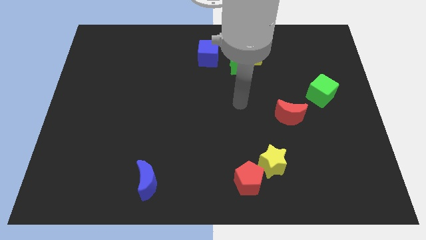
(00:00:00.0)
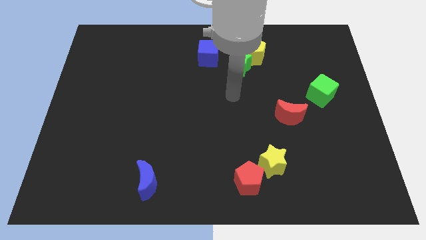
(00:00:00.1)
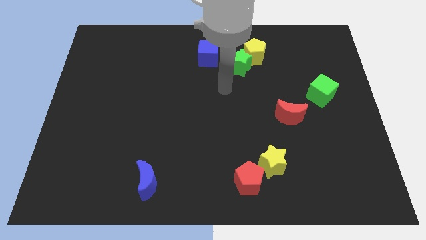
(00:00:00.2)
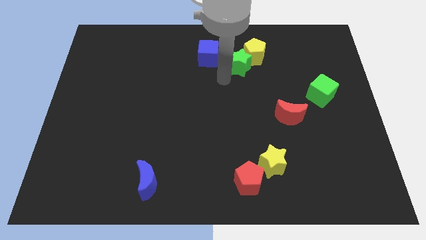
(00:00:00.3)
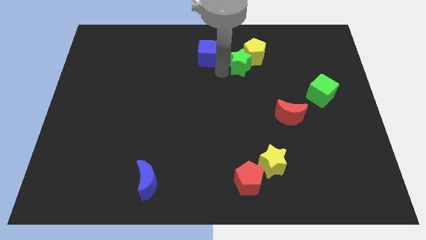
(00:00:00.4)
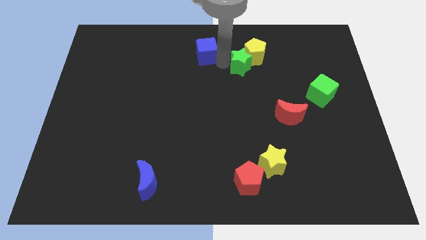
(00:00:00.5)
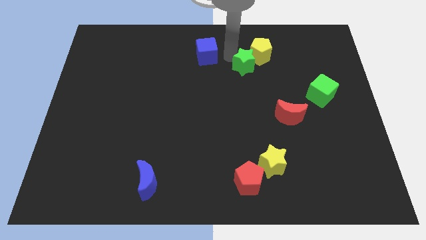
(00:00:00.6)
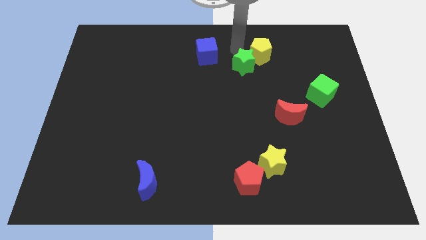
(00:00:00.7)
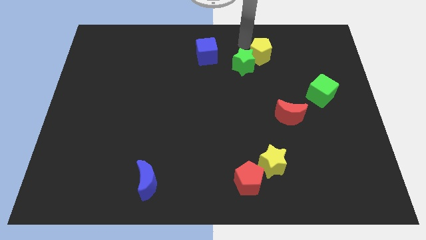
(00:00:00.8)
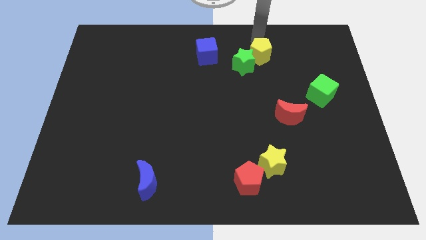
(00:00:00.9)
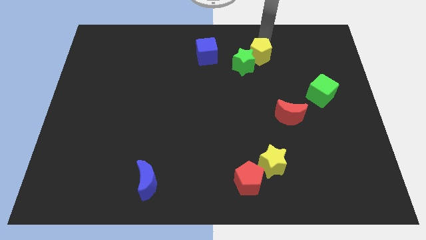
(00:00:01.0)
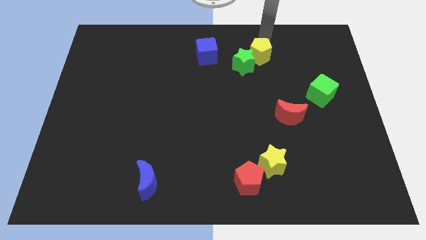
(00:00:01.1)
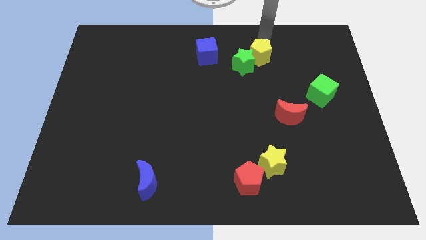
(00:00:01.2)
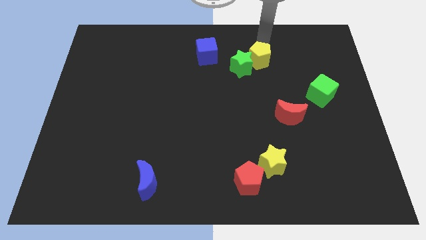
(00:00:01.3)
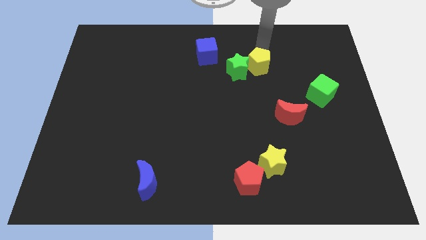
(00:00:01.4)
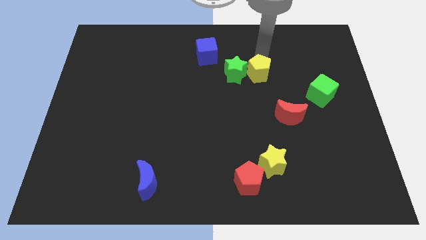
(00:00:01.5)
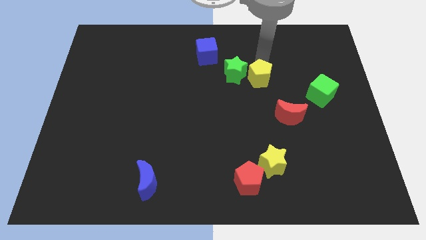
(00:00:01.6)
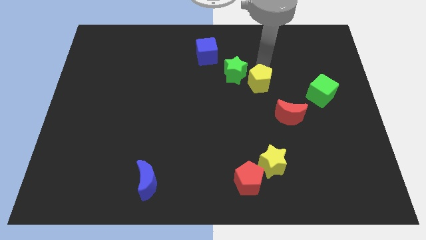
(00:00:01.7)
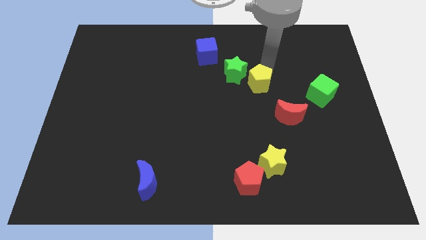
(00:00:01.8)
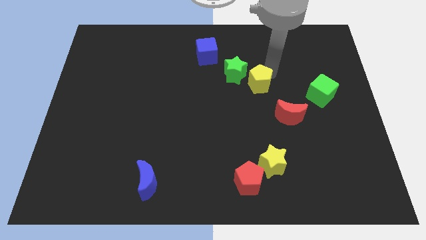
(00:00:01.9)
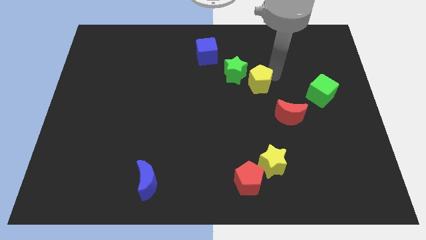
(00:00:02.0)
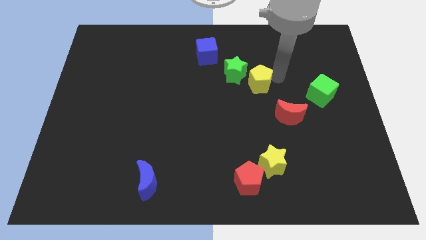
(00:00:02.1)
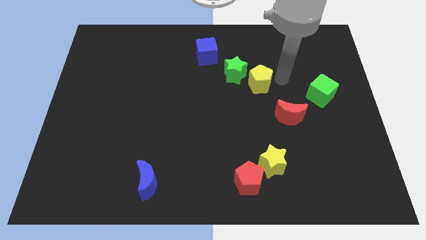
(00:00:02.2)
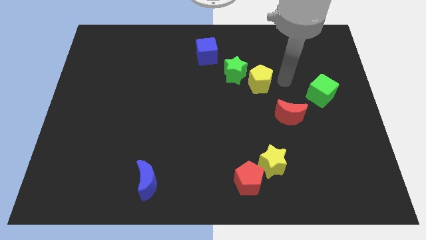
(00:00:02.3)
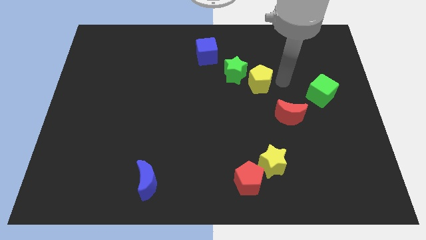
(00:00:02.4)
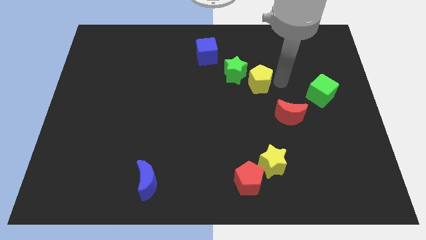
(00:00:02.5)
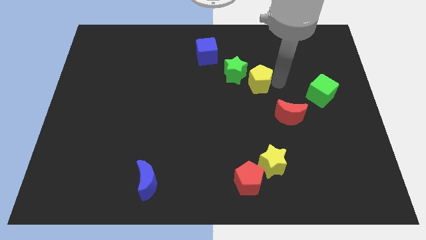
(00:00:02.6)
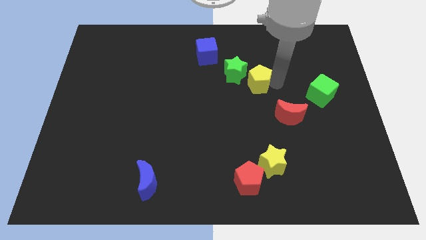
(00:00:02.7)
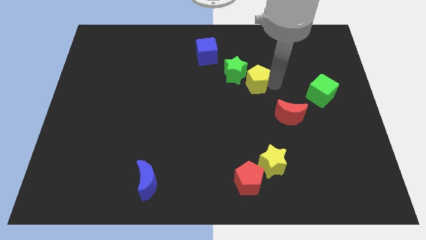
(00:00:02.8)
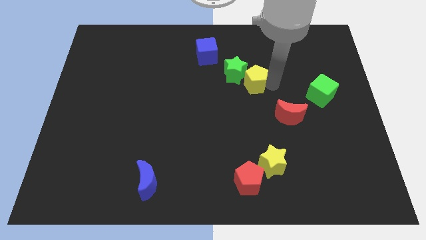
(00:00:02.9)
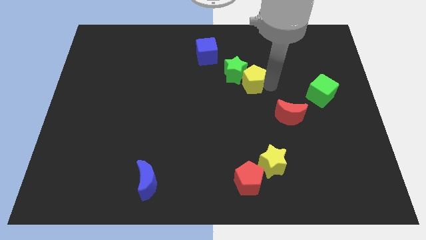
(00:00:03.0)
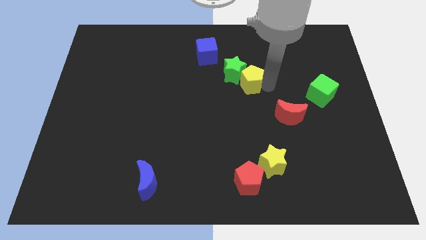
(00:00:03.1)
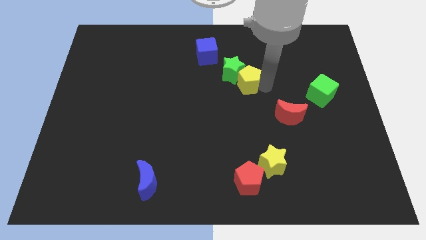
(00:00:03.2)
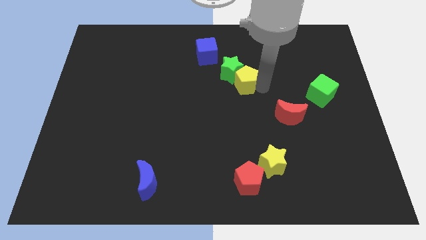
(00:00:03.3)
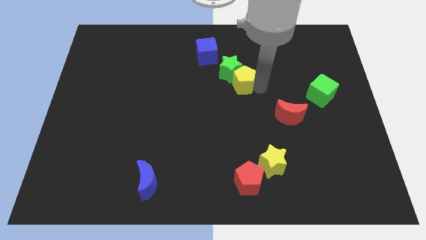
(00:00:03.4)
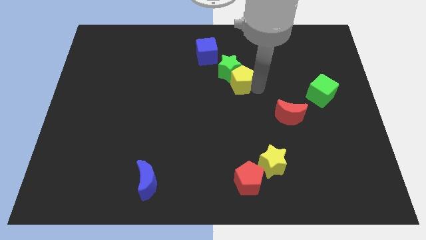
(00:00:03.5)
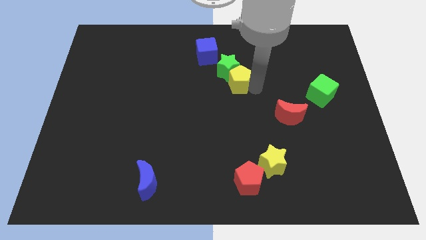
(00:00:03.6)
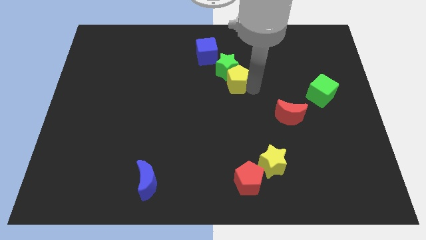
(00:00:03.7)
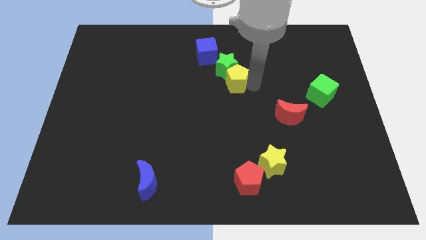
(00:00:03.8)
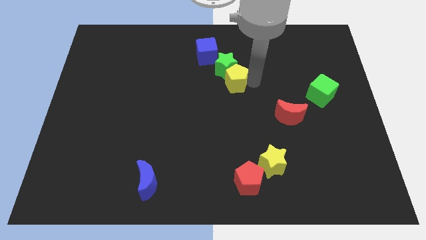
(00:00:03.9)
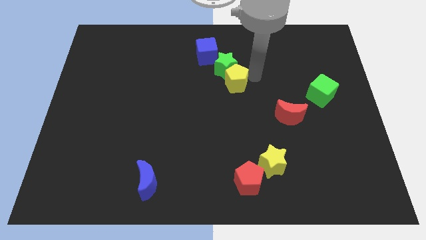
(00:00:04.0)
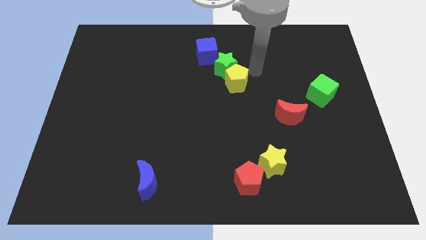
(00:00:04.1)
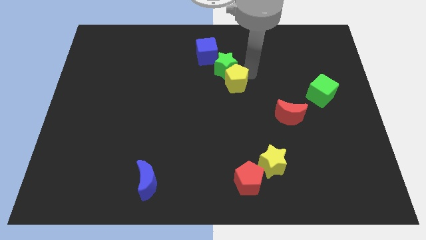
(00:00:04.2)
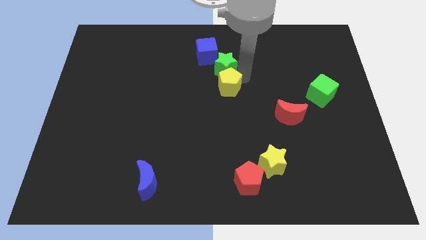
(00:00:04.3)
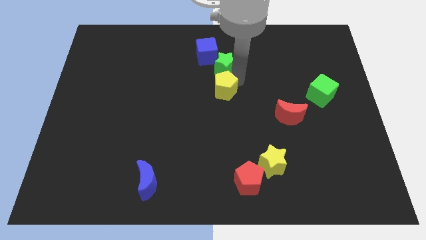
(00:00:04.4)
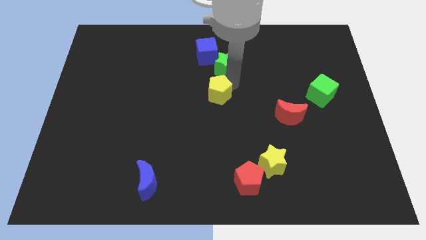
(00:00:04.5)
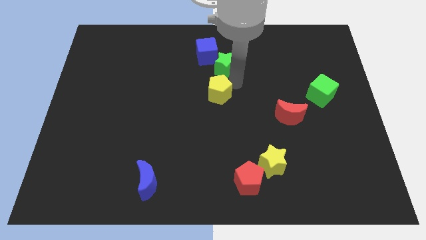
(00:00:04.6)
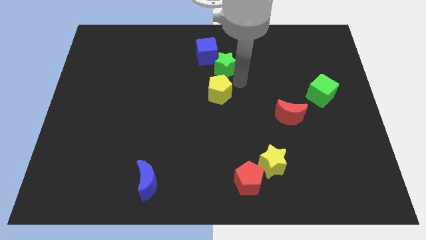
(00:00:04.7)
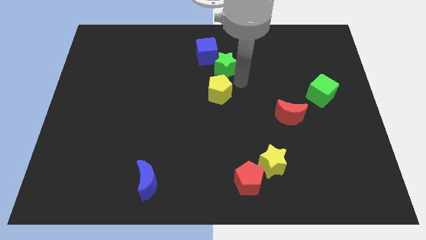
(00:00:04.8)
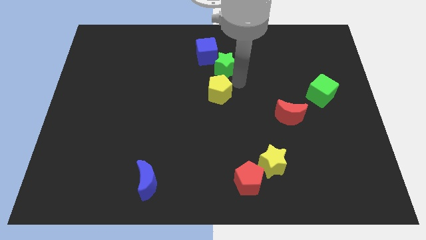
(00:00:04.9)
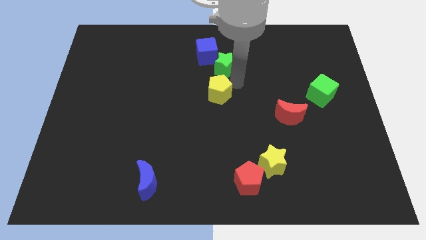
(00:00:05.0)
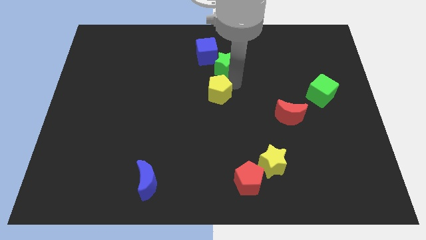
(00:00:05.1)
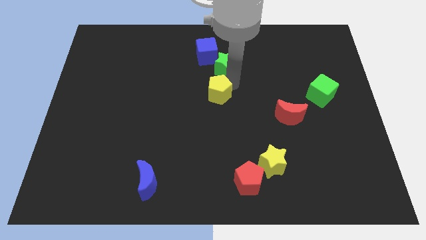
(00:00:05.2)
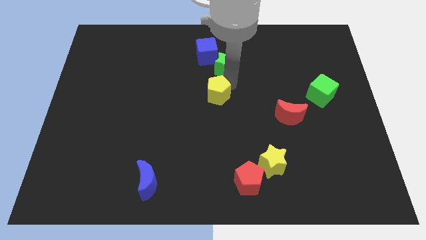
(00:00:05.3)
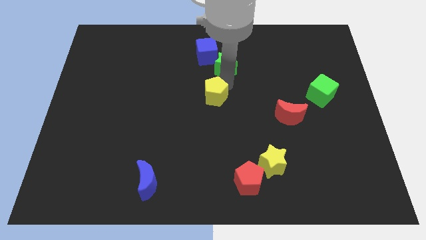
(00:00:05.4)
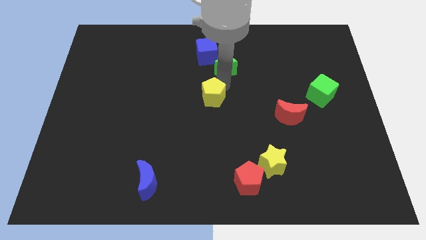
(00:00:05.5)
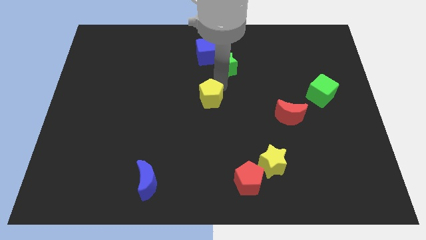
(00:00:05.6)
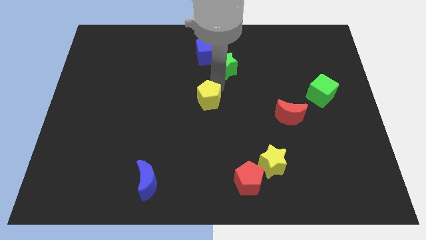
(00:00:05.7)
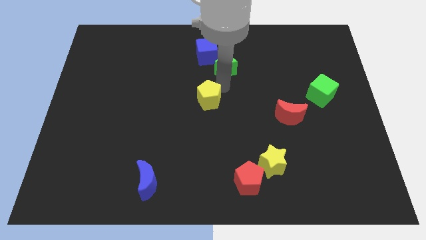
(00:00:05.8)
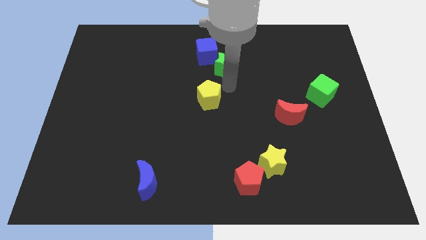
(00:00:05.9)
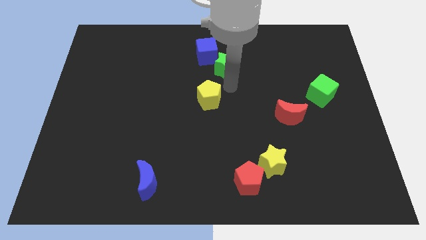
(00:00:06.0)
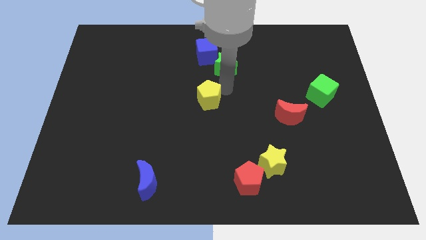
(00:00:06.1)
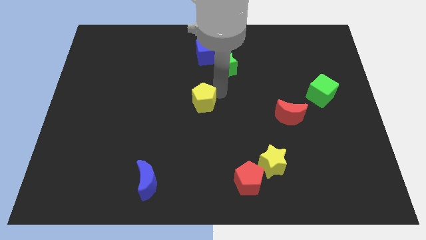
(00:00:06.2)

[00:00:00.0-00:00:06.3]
slide the yellow pentagon downwards and to the left diagonally

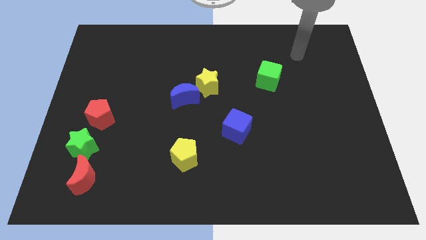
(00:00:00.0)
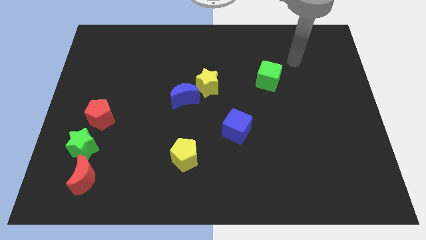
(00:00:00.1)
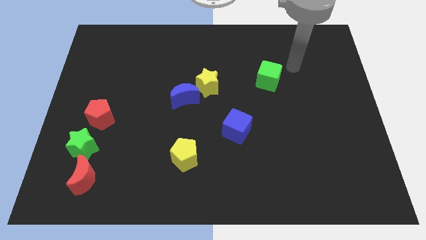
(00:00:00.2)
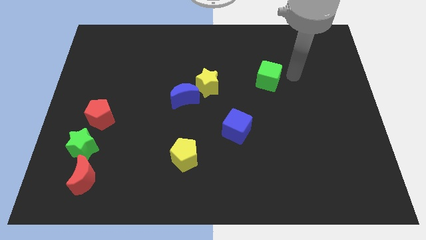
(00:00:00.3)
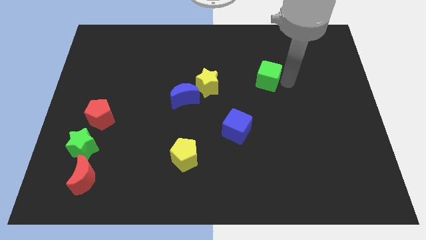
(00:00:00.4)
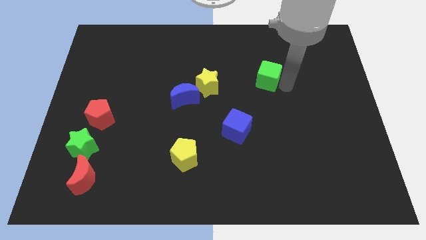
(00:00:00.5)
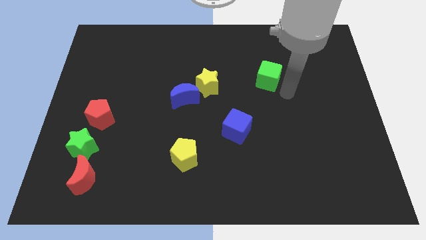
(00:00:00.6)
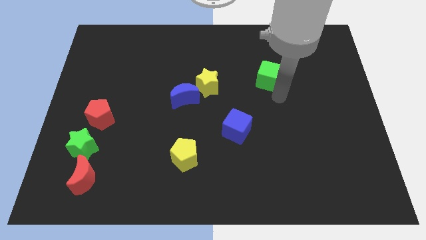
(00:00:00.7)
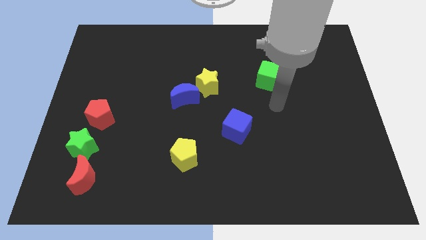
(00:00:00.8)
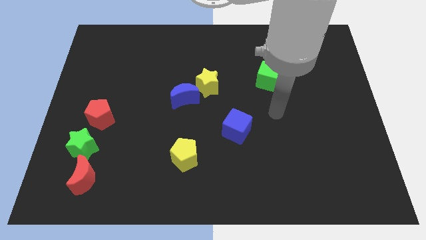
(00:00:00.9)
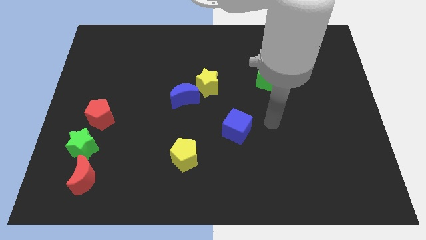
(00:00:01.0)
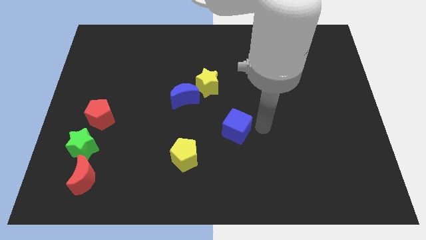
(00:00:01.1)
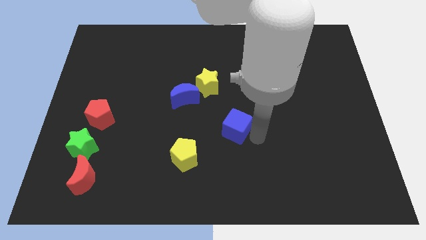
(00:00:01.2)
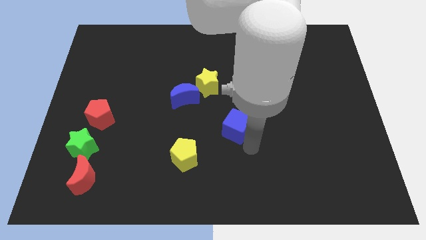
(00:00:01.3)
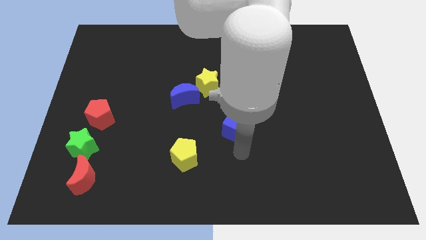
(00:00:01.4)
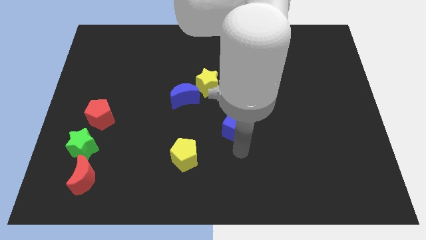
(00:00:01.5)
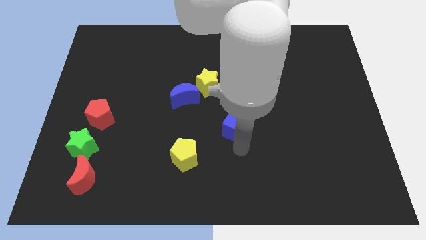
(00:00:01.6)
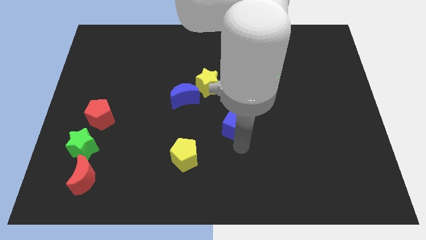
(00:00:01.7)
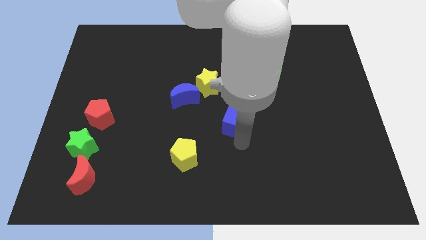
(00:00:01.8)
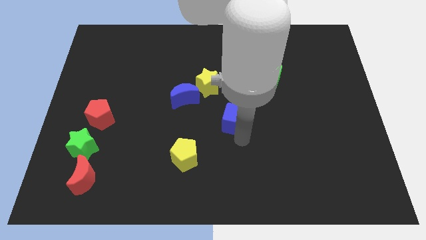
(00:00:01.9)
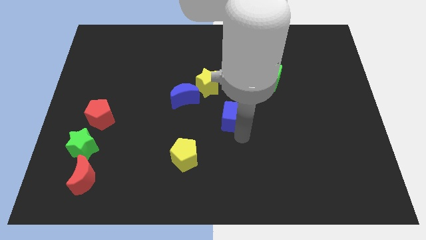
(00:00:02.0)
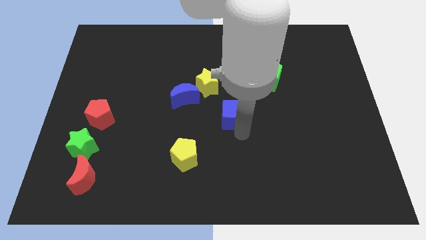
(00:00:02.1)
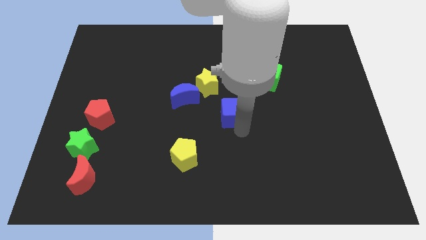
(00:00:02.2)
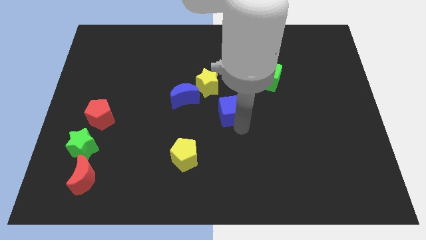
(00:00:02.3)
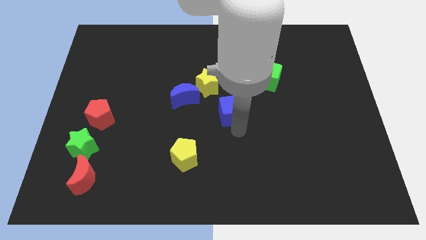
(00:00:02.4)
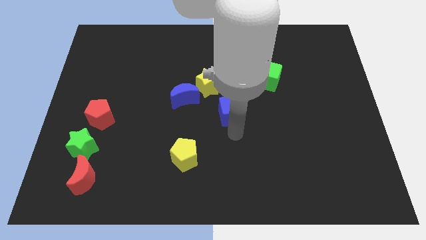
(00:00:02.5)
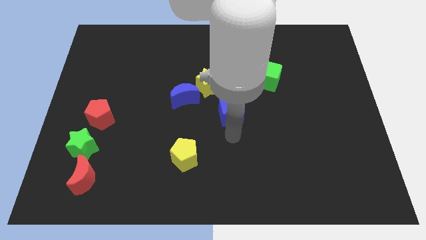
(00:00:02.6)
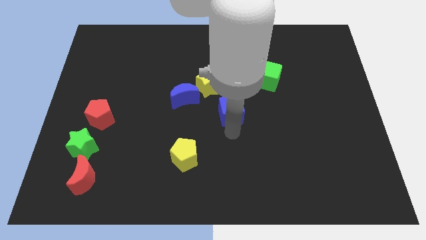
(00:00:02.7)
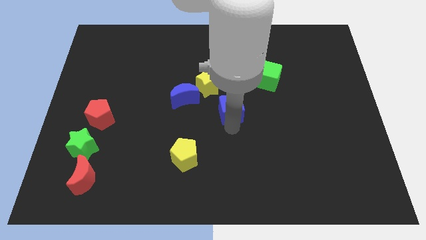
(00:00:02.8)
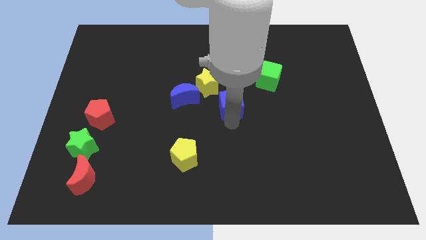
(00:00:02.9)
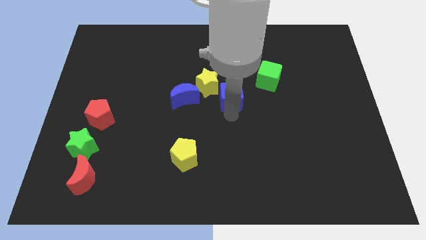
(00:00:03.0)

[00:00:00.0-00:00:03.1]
slightly slide the blue cube up
